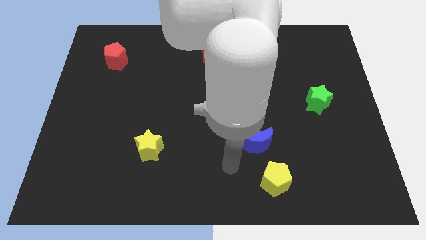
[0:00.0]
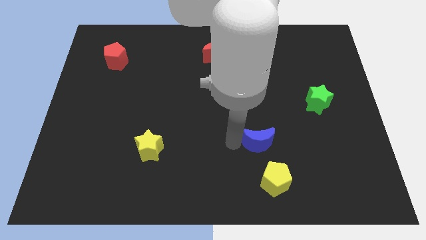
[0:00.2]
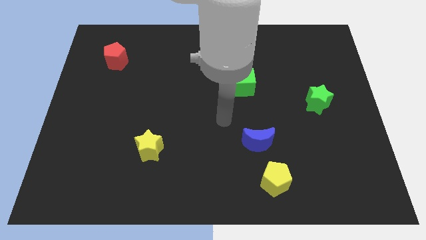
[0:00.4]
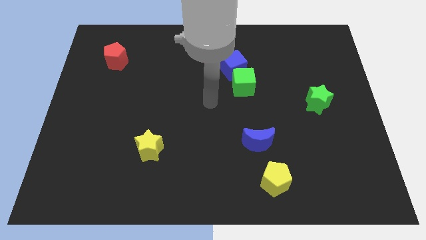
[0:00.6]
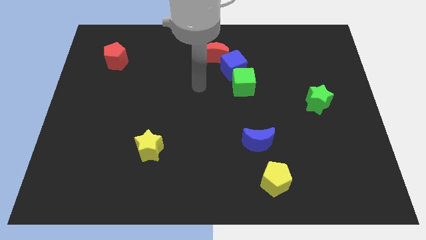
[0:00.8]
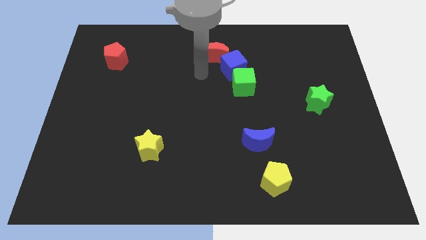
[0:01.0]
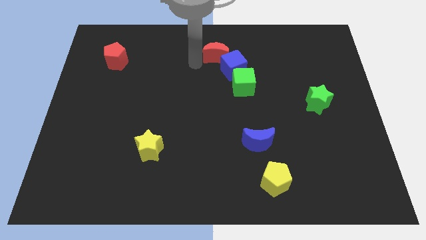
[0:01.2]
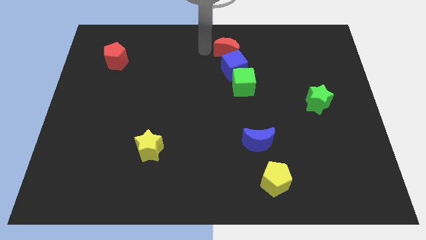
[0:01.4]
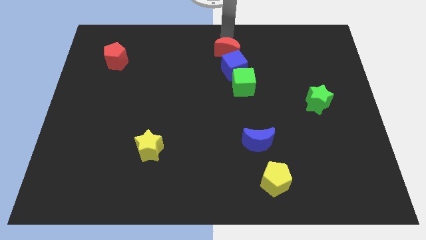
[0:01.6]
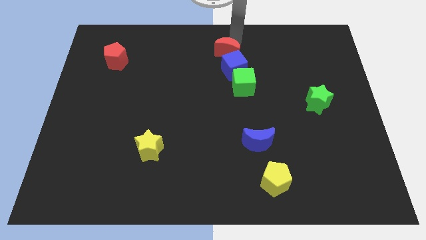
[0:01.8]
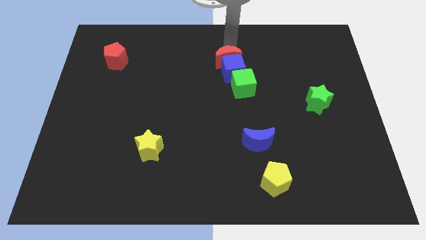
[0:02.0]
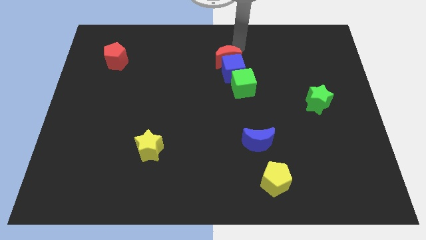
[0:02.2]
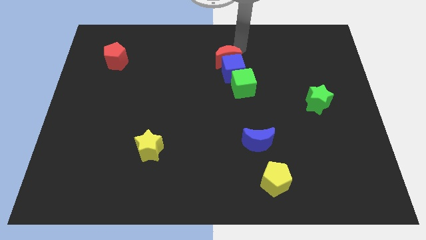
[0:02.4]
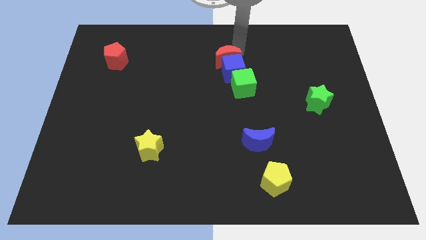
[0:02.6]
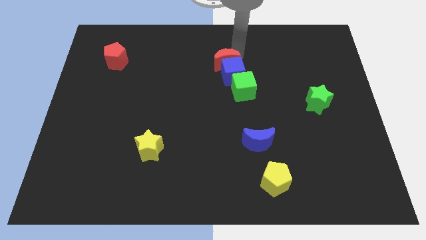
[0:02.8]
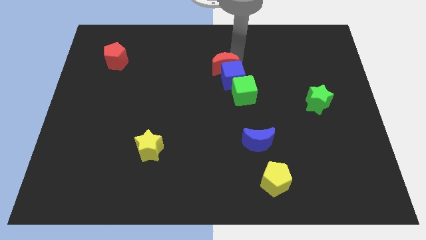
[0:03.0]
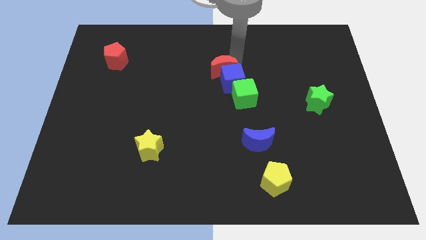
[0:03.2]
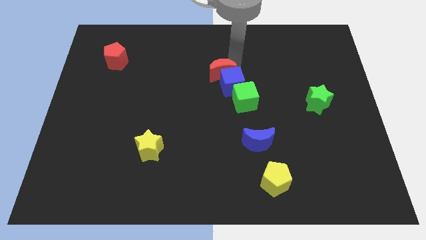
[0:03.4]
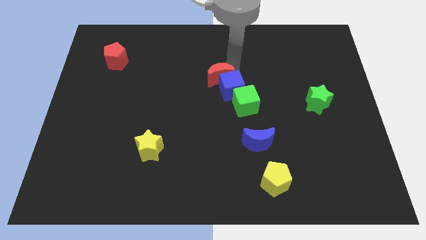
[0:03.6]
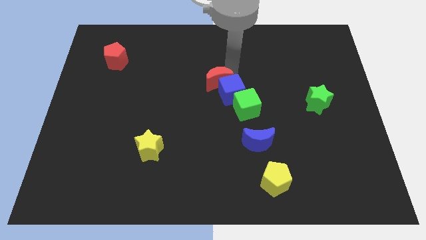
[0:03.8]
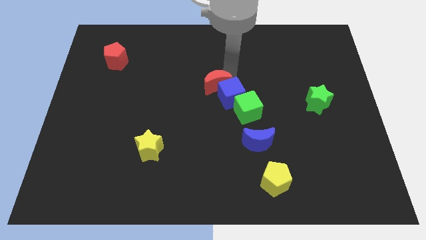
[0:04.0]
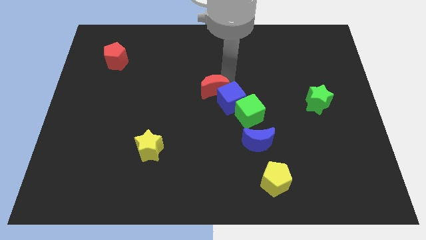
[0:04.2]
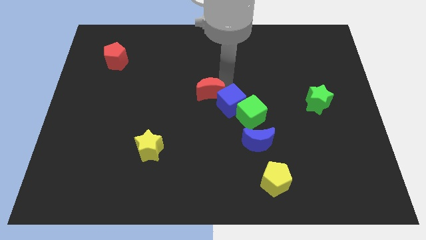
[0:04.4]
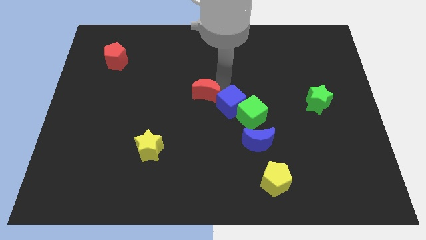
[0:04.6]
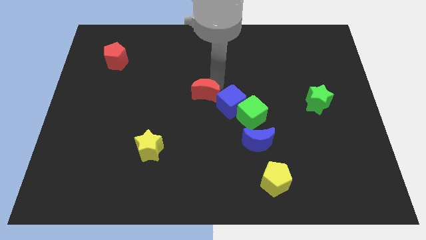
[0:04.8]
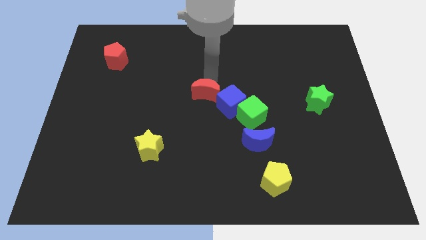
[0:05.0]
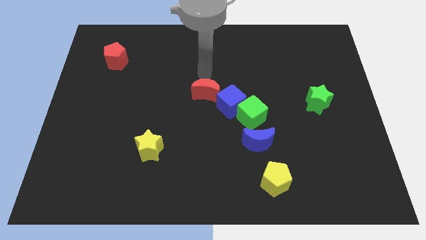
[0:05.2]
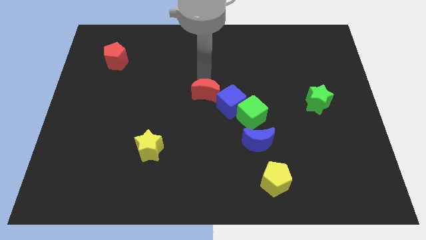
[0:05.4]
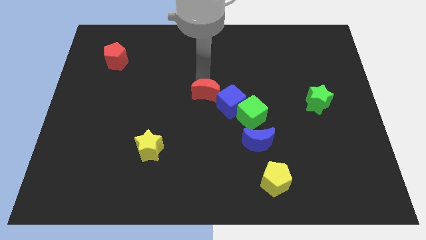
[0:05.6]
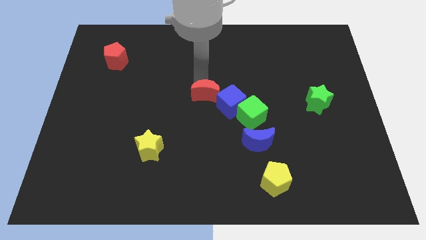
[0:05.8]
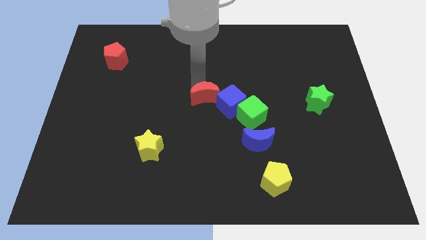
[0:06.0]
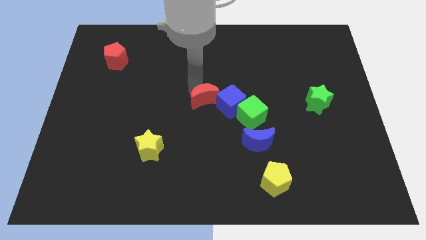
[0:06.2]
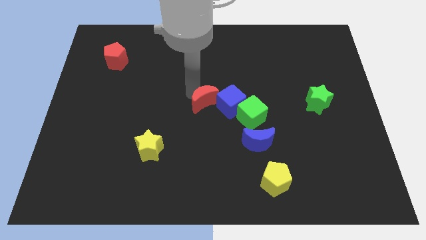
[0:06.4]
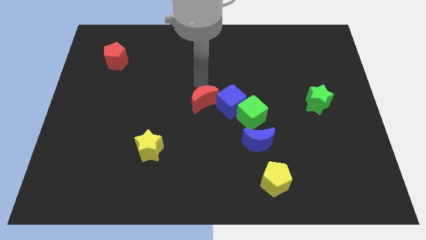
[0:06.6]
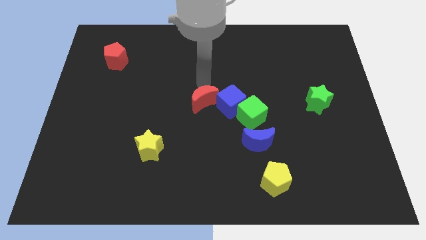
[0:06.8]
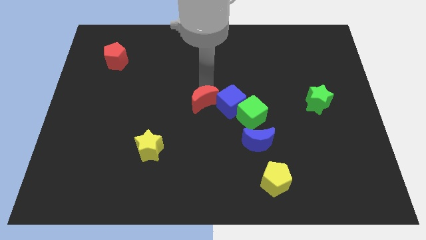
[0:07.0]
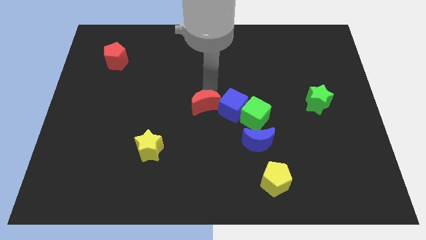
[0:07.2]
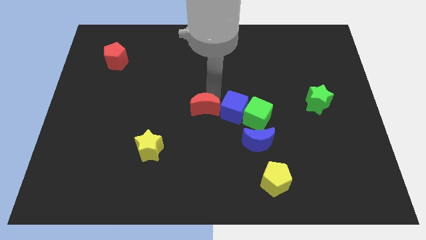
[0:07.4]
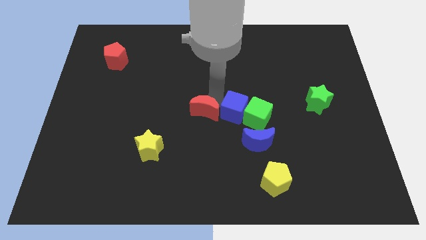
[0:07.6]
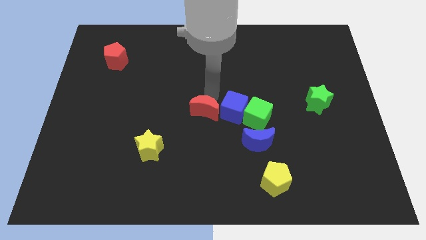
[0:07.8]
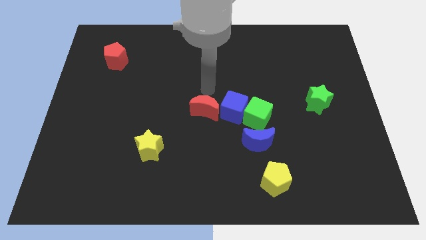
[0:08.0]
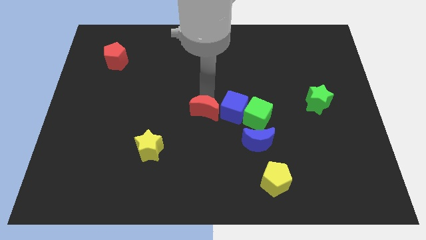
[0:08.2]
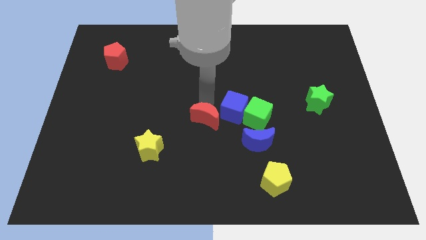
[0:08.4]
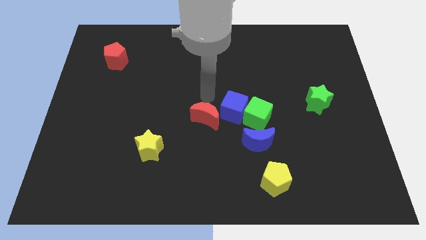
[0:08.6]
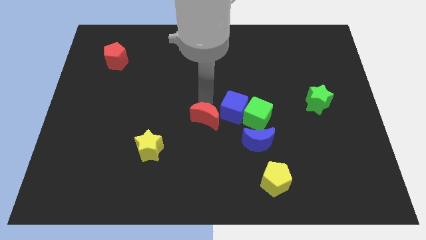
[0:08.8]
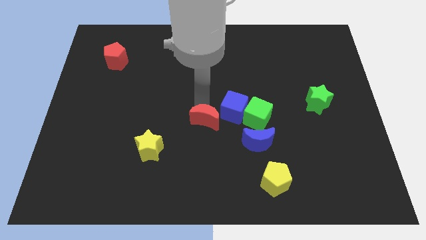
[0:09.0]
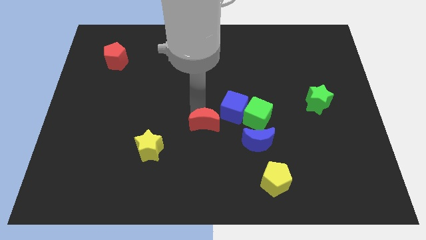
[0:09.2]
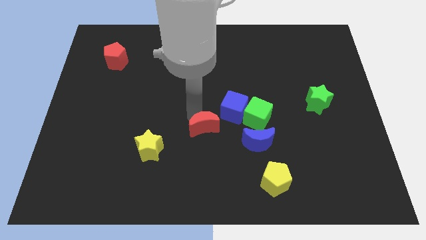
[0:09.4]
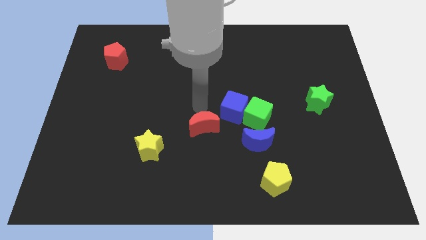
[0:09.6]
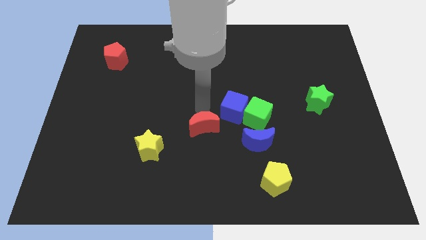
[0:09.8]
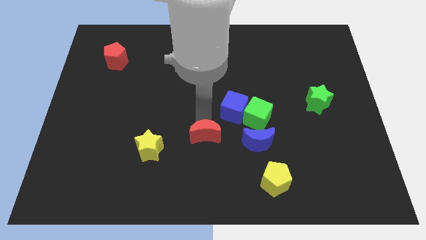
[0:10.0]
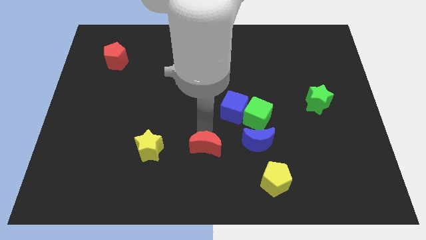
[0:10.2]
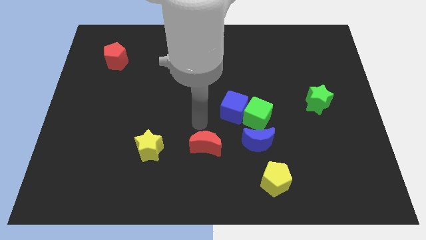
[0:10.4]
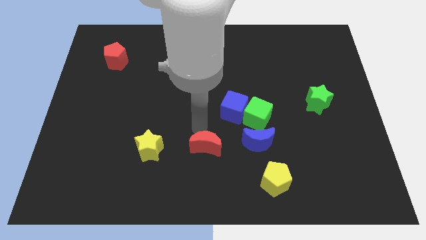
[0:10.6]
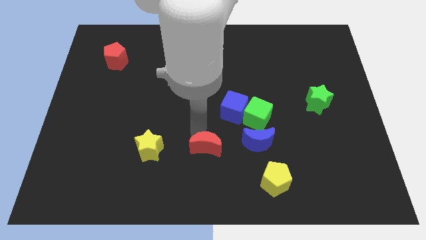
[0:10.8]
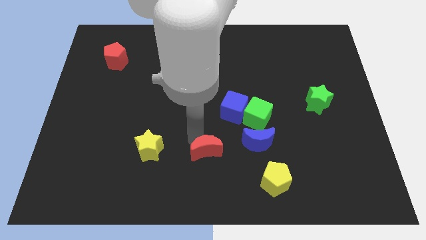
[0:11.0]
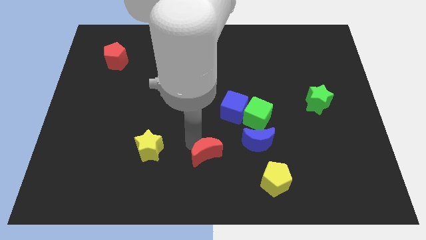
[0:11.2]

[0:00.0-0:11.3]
push the red moon to the bottom side

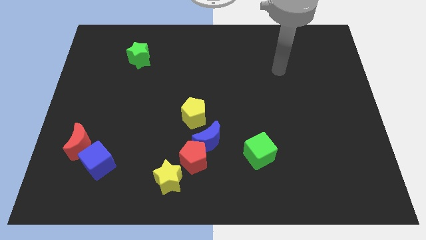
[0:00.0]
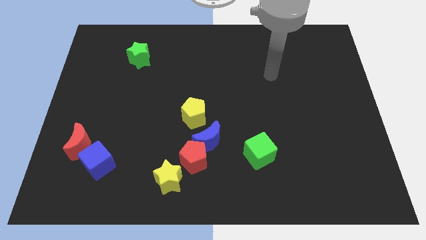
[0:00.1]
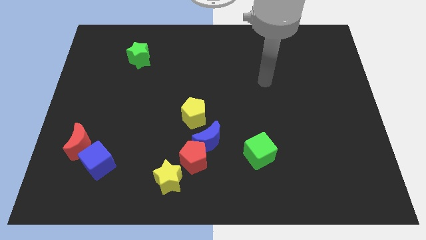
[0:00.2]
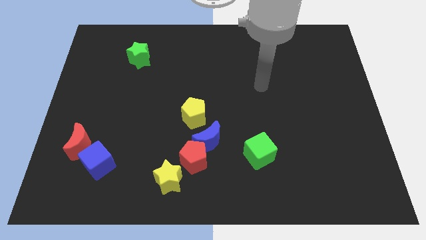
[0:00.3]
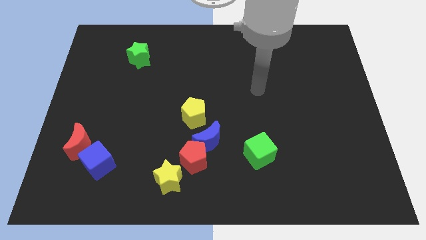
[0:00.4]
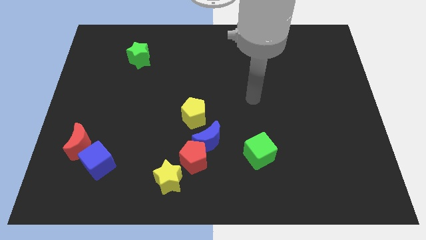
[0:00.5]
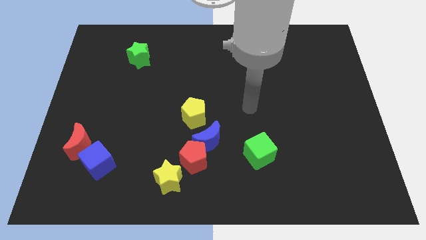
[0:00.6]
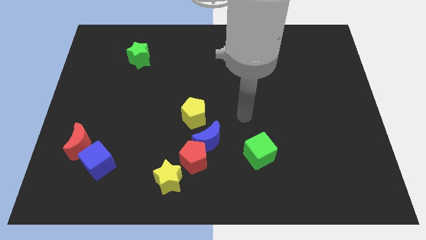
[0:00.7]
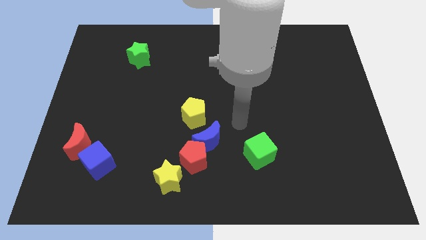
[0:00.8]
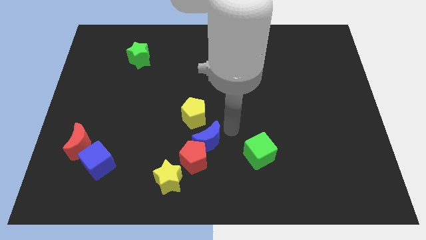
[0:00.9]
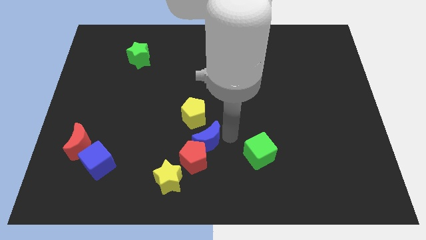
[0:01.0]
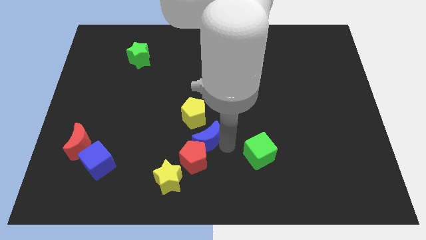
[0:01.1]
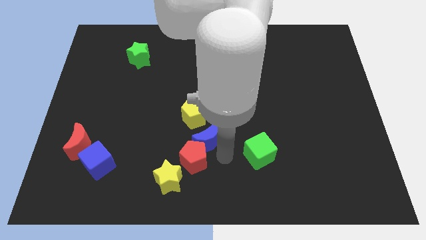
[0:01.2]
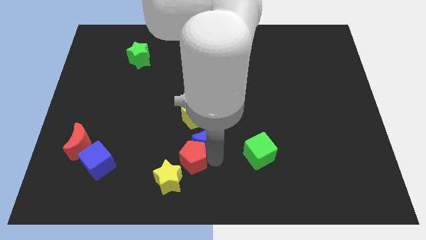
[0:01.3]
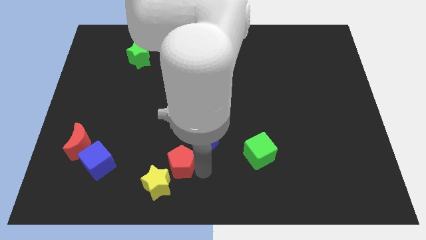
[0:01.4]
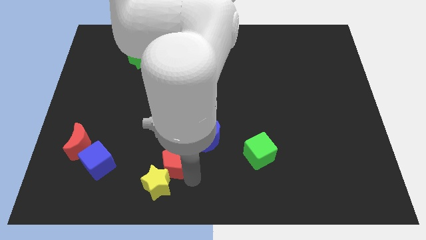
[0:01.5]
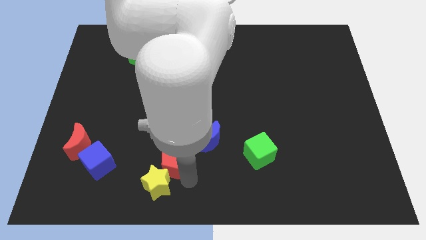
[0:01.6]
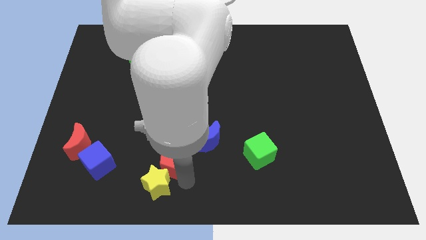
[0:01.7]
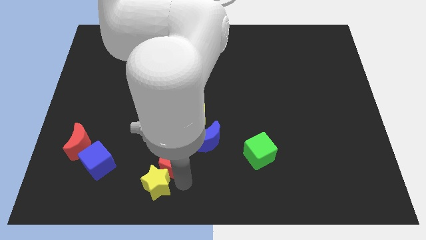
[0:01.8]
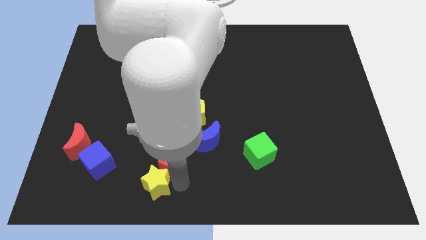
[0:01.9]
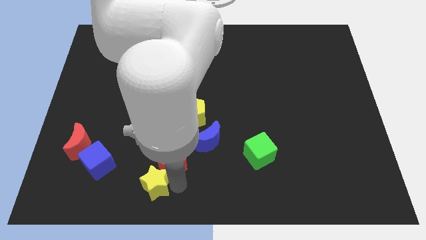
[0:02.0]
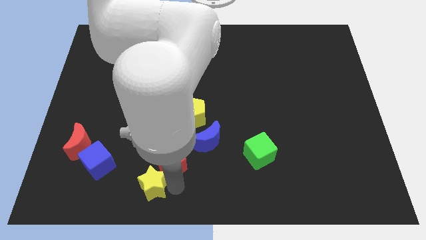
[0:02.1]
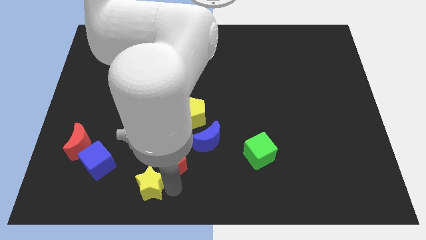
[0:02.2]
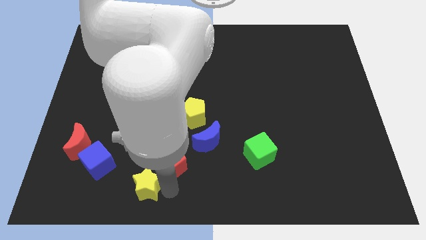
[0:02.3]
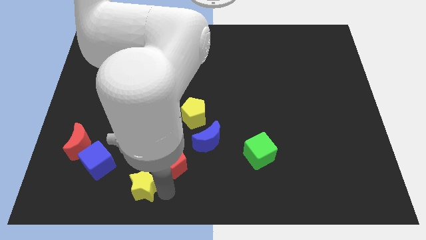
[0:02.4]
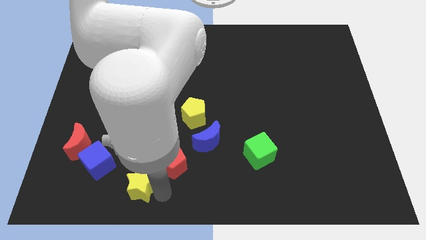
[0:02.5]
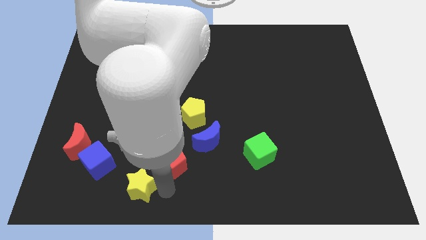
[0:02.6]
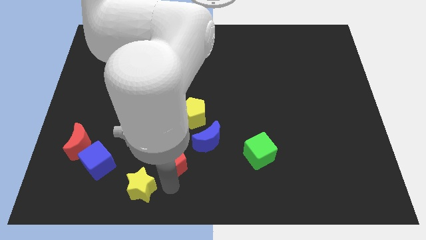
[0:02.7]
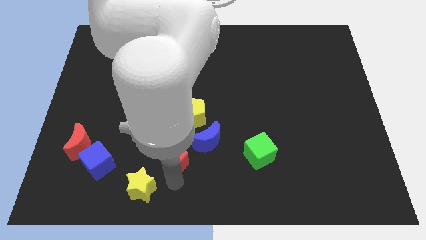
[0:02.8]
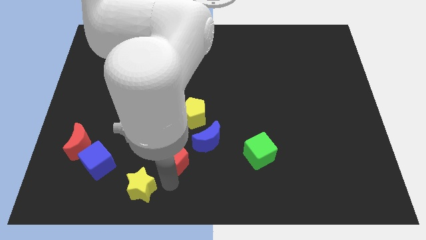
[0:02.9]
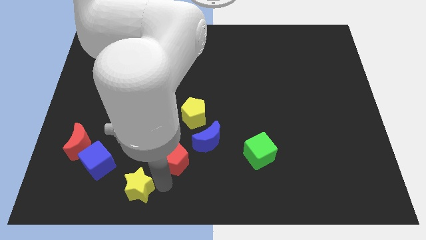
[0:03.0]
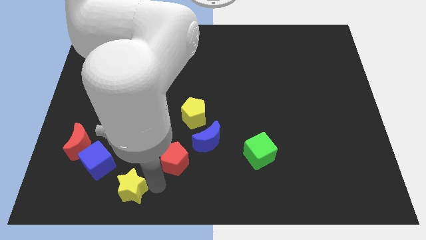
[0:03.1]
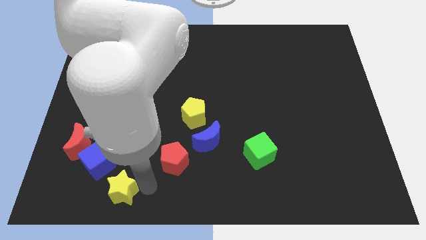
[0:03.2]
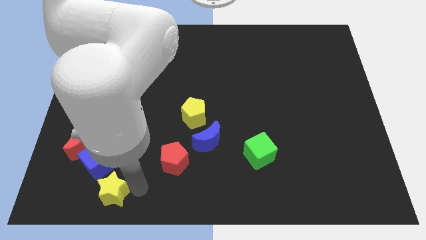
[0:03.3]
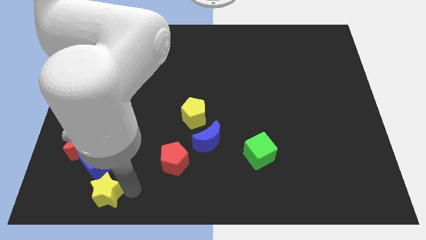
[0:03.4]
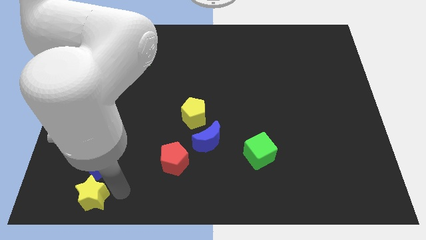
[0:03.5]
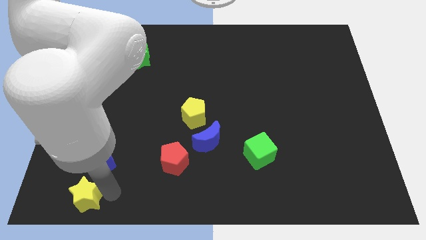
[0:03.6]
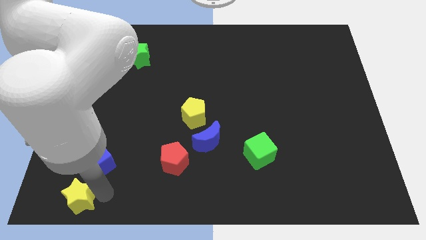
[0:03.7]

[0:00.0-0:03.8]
push the yellow star to the lower left corner
